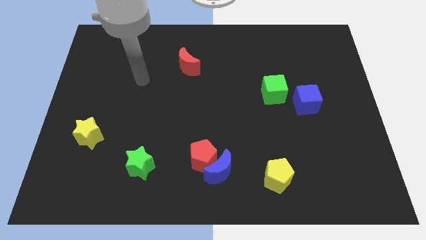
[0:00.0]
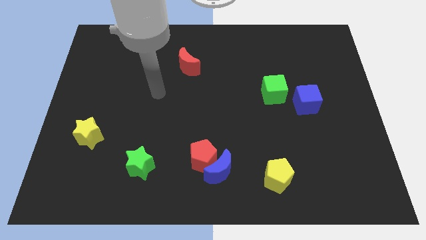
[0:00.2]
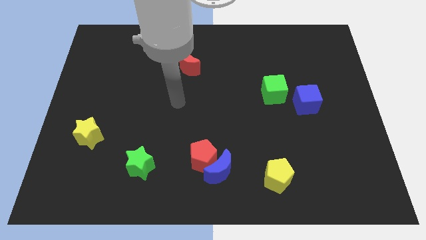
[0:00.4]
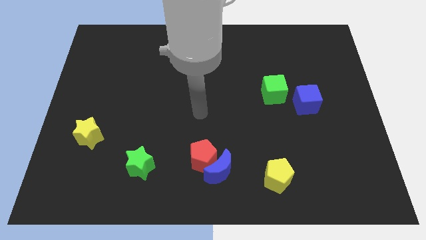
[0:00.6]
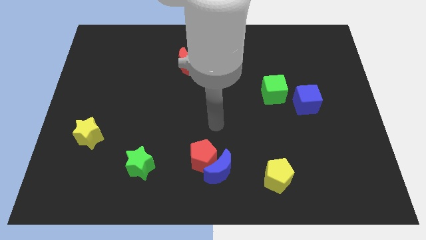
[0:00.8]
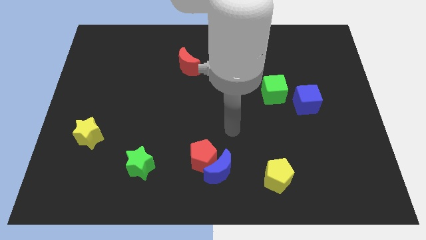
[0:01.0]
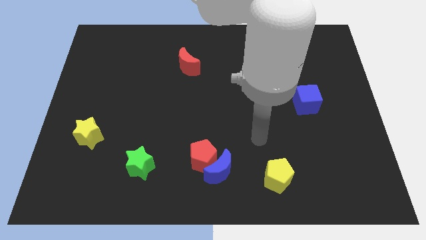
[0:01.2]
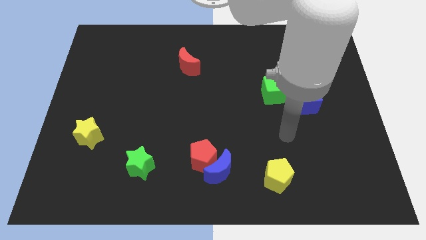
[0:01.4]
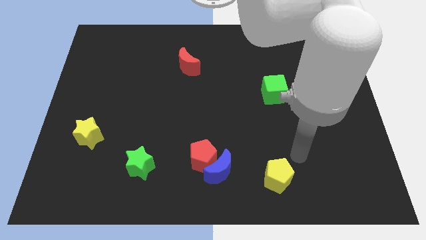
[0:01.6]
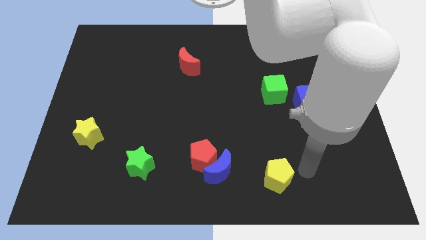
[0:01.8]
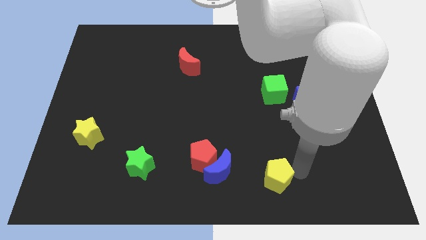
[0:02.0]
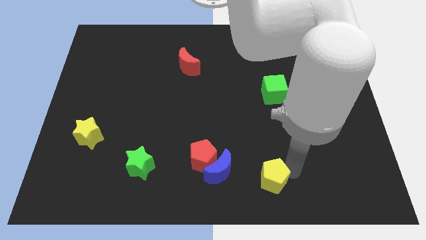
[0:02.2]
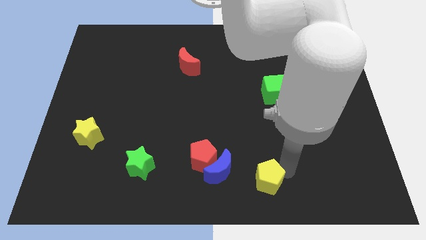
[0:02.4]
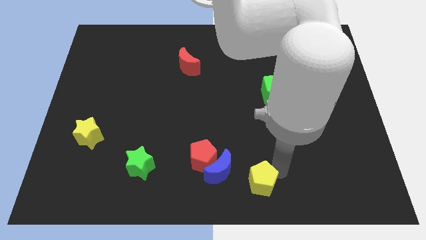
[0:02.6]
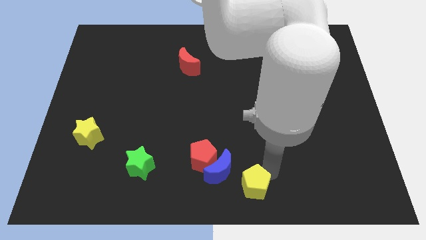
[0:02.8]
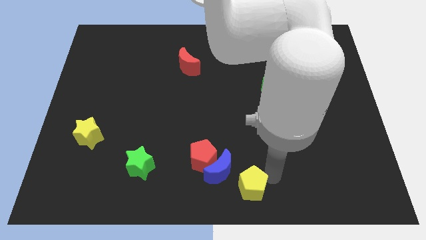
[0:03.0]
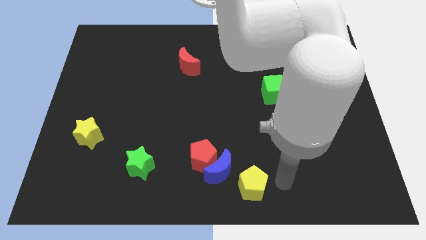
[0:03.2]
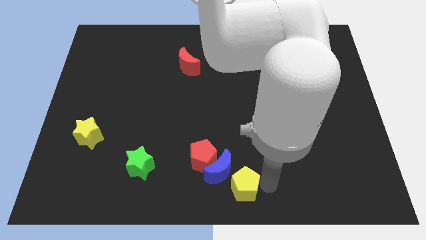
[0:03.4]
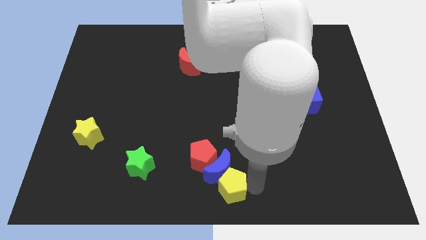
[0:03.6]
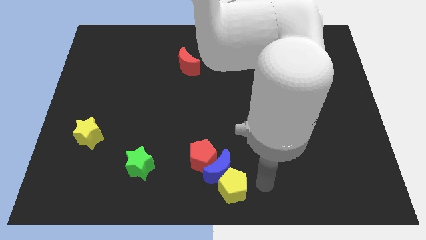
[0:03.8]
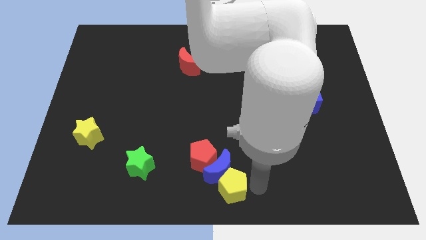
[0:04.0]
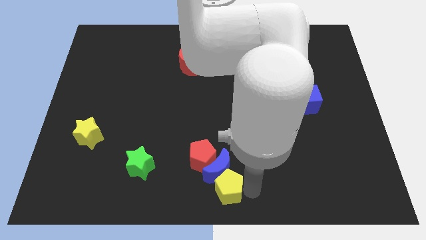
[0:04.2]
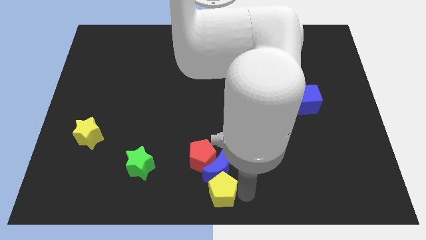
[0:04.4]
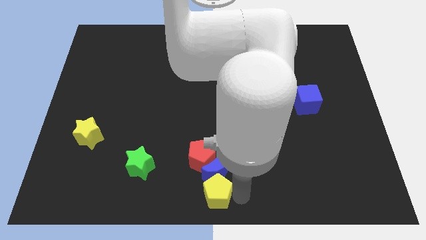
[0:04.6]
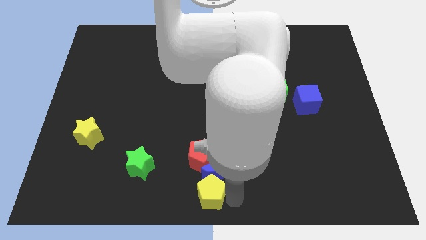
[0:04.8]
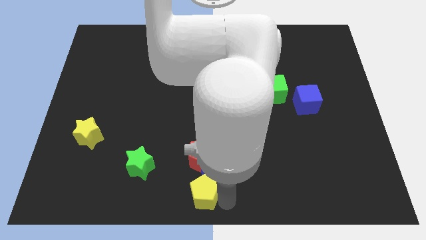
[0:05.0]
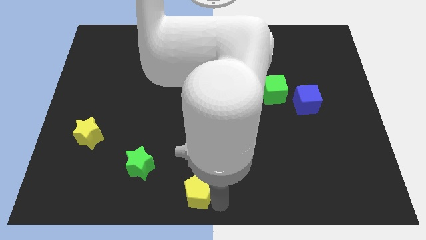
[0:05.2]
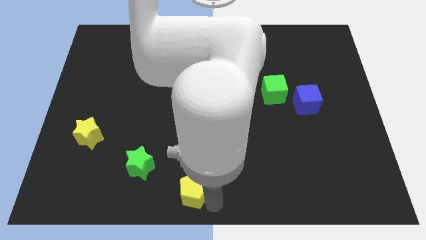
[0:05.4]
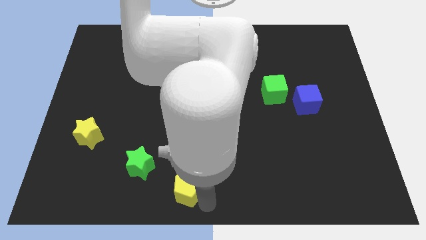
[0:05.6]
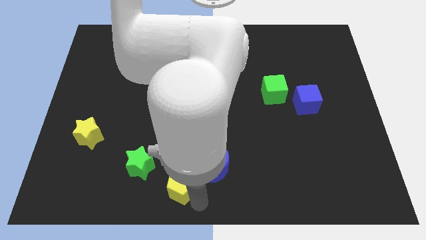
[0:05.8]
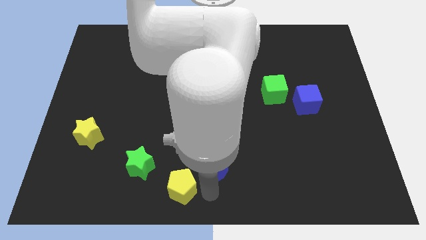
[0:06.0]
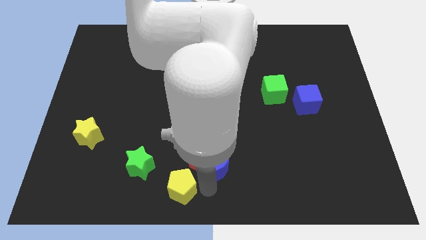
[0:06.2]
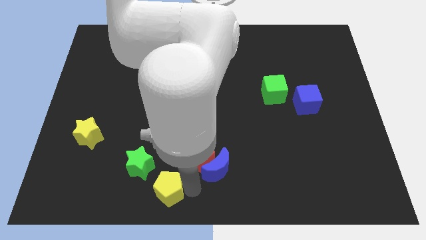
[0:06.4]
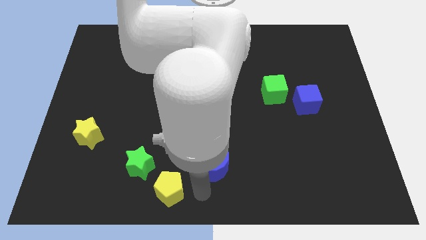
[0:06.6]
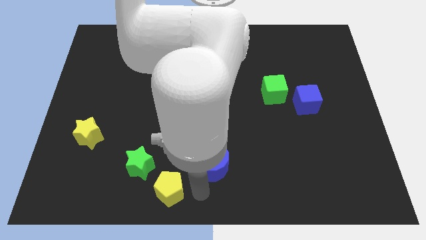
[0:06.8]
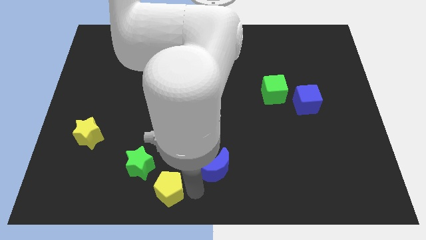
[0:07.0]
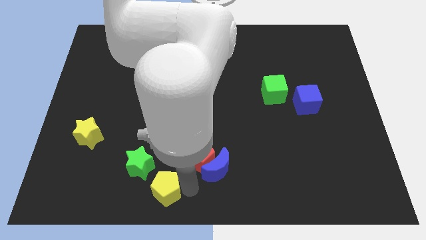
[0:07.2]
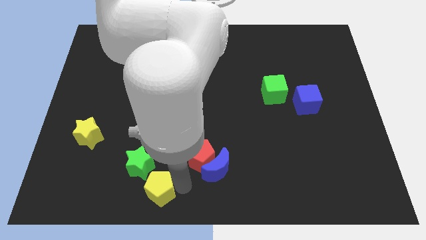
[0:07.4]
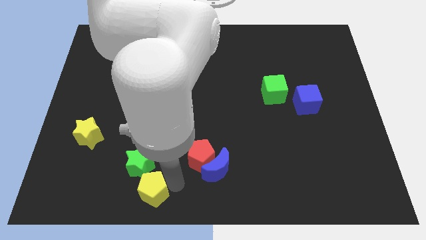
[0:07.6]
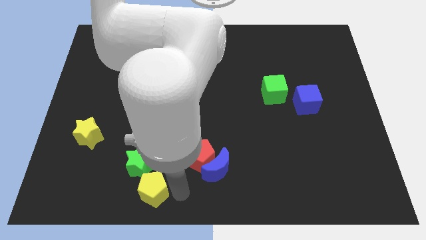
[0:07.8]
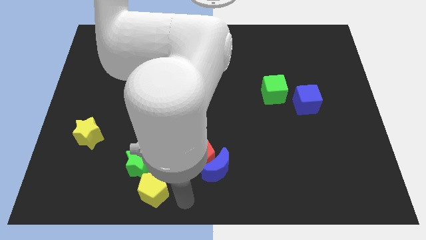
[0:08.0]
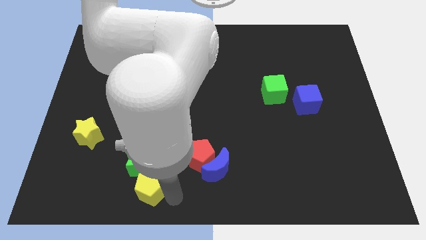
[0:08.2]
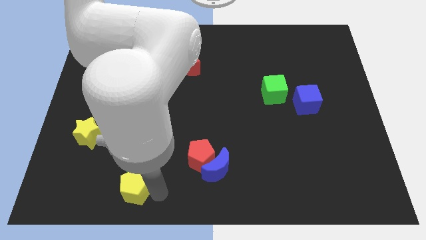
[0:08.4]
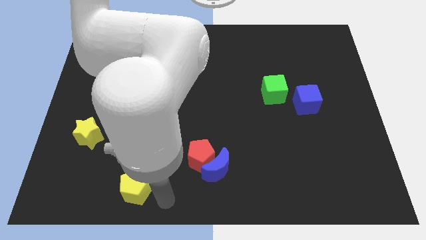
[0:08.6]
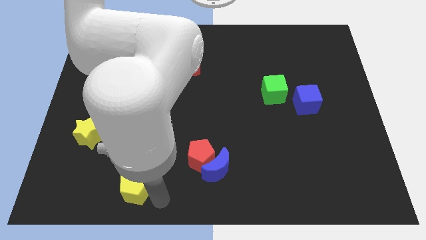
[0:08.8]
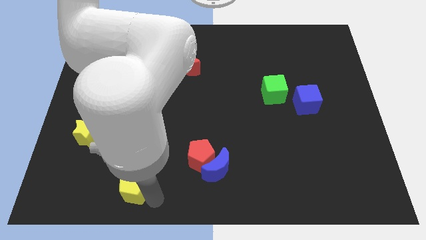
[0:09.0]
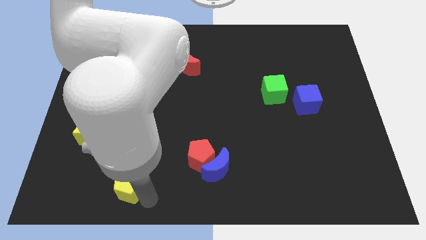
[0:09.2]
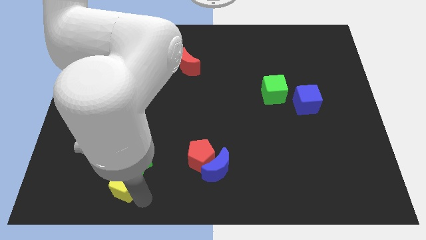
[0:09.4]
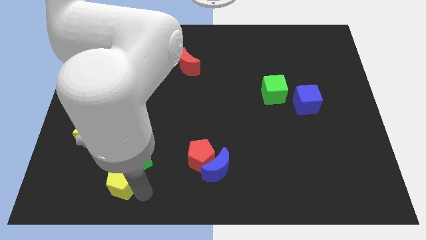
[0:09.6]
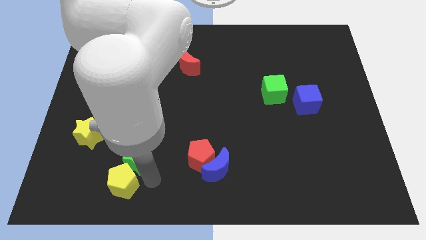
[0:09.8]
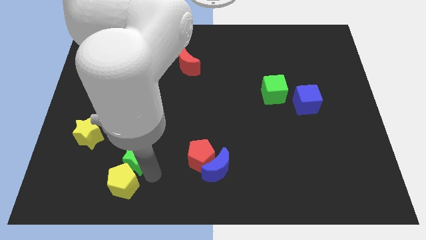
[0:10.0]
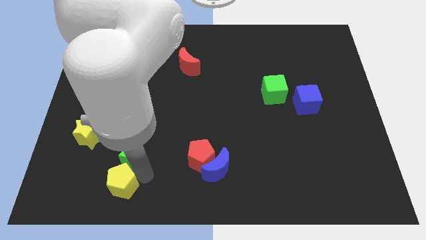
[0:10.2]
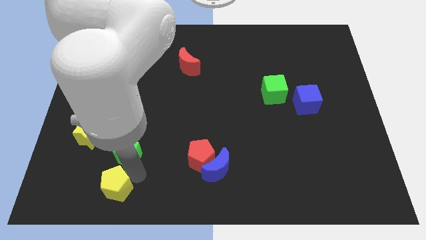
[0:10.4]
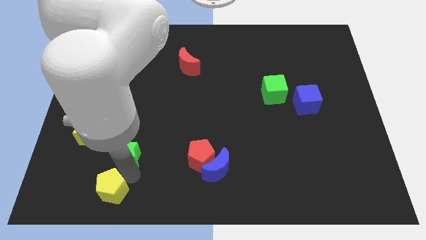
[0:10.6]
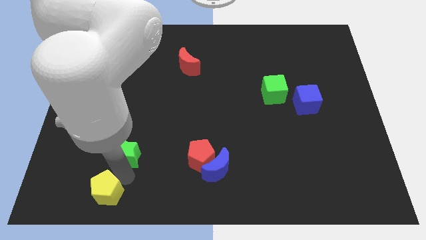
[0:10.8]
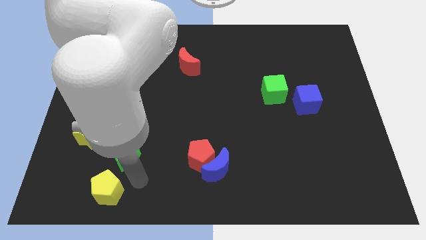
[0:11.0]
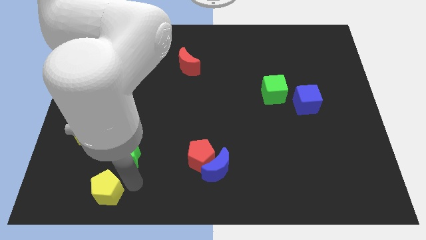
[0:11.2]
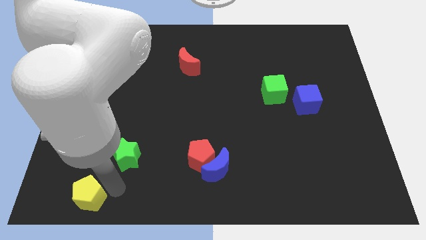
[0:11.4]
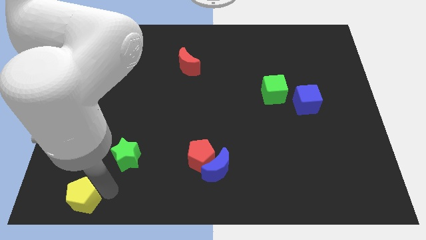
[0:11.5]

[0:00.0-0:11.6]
push the yellow pentagon to the bottom left of the board
